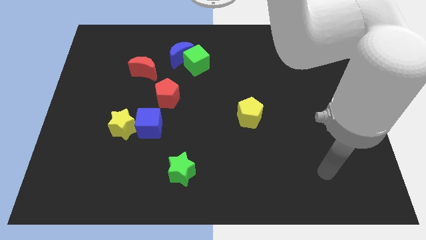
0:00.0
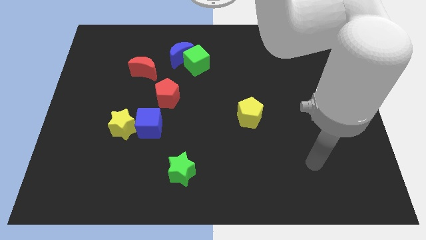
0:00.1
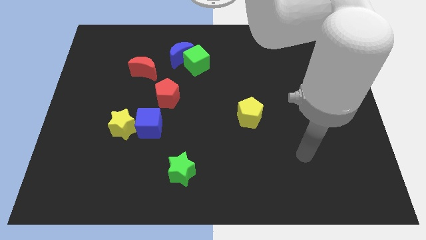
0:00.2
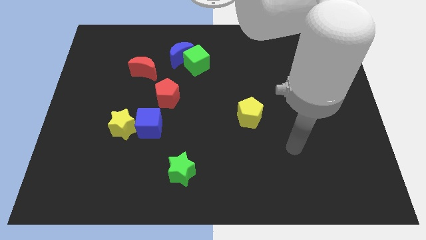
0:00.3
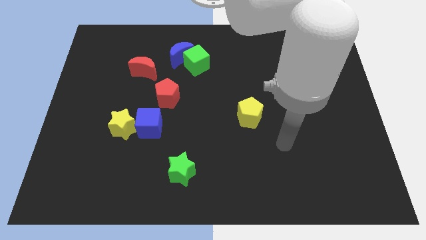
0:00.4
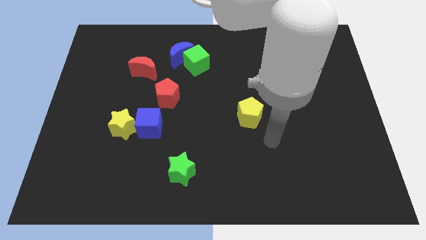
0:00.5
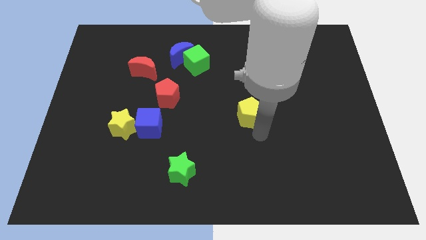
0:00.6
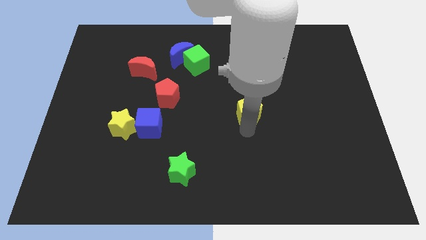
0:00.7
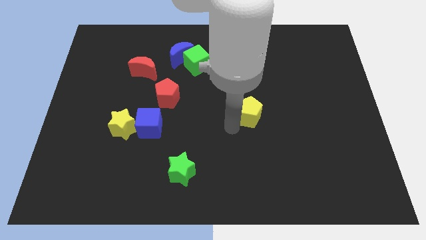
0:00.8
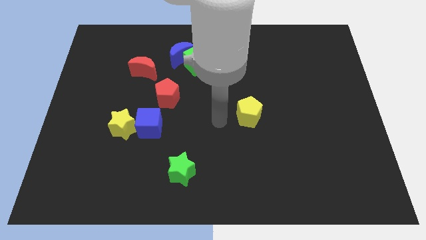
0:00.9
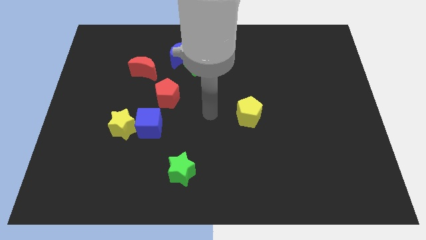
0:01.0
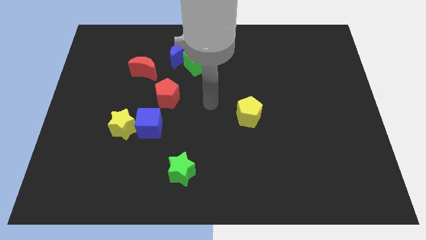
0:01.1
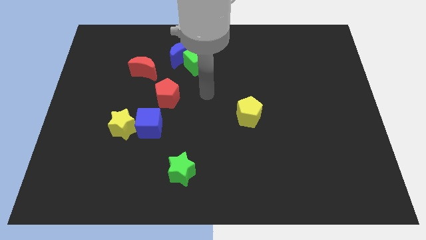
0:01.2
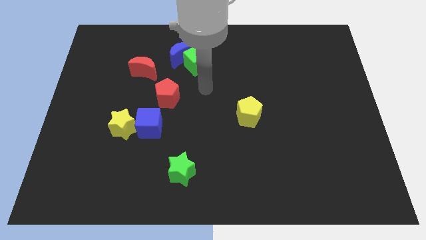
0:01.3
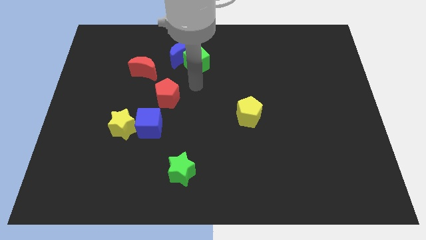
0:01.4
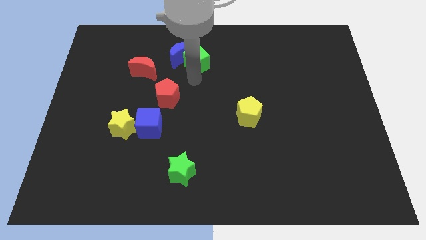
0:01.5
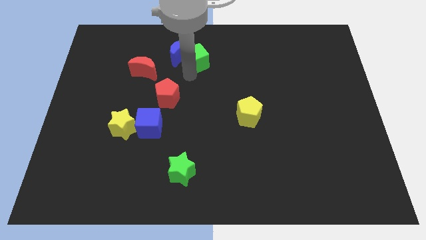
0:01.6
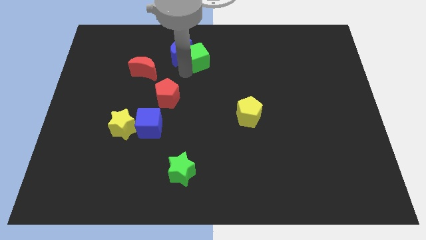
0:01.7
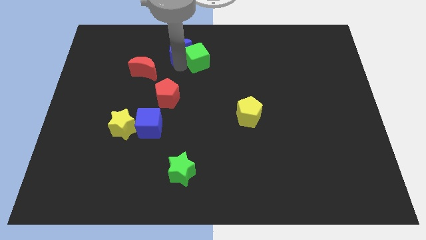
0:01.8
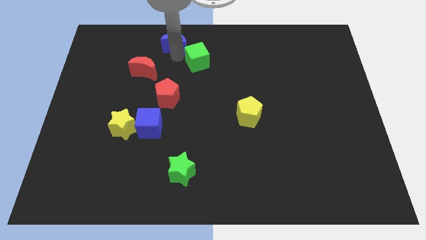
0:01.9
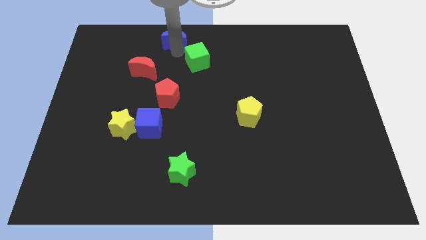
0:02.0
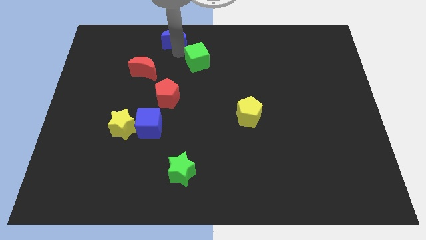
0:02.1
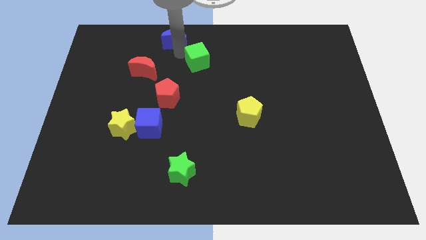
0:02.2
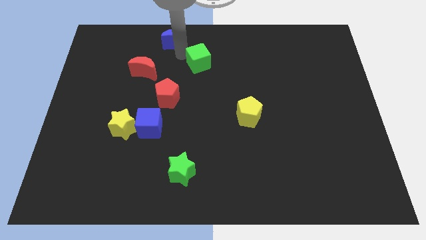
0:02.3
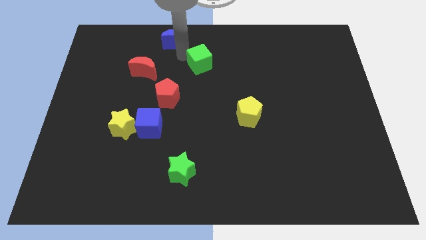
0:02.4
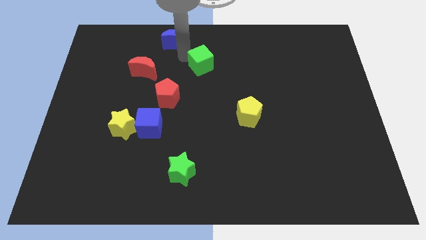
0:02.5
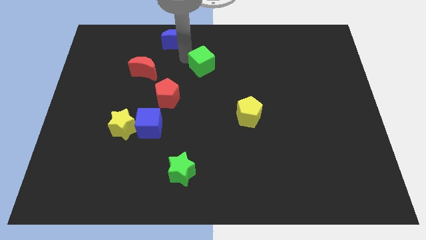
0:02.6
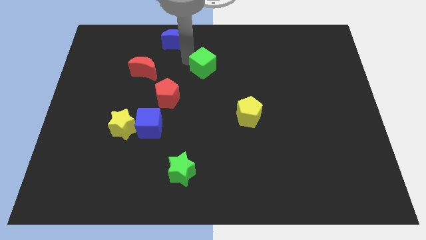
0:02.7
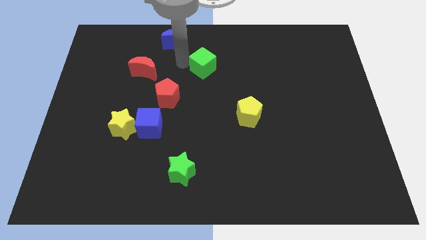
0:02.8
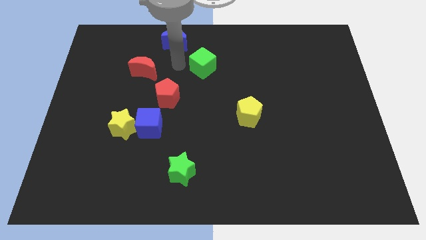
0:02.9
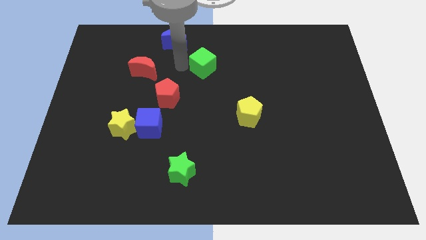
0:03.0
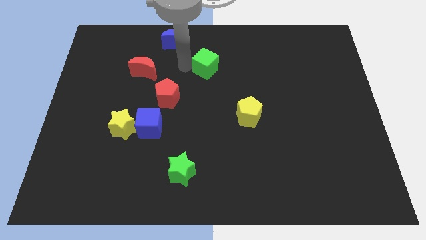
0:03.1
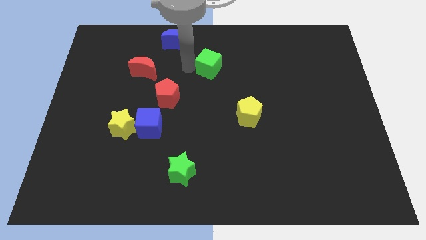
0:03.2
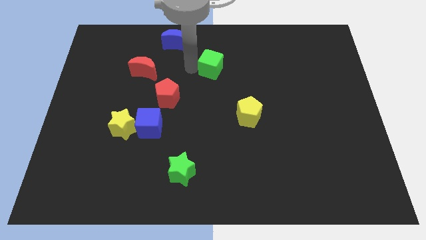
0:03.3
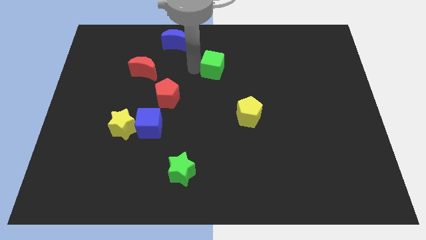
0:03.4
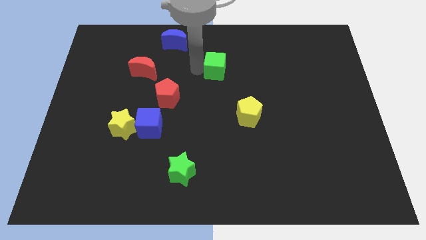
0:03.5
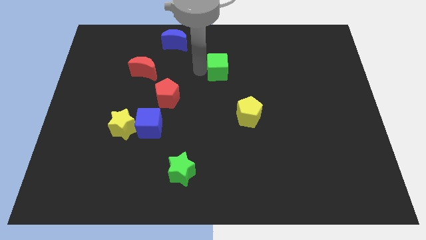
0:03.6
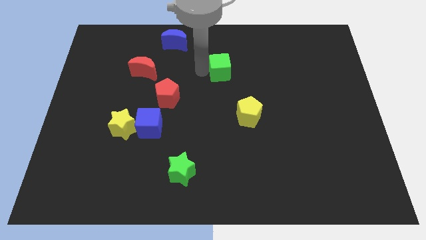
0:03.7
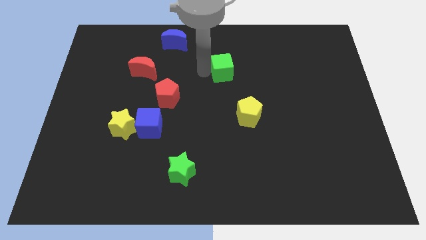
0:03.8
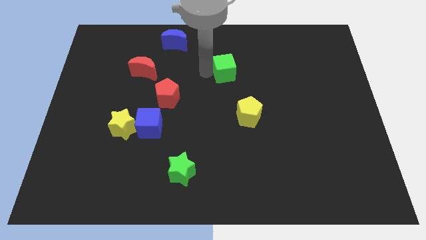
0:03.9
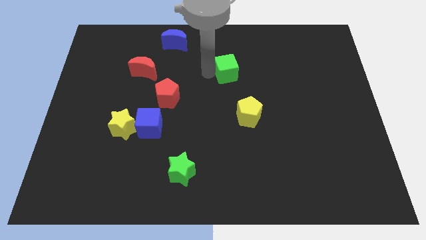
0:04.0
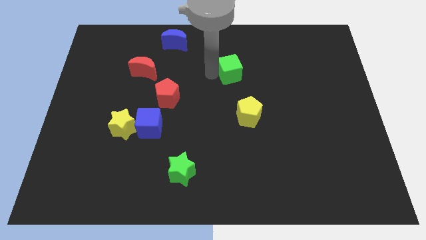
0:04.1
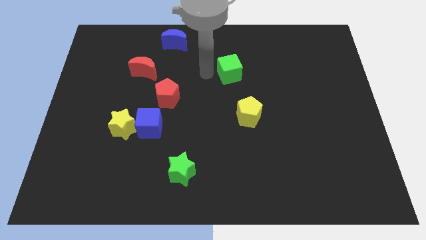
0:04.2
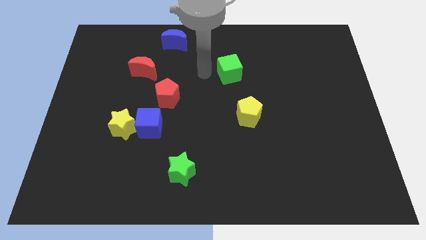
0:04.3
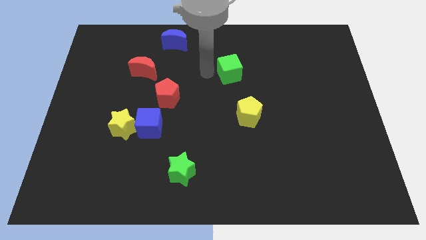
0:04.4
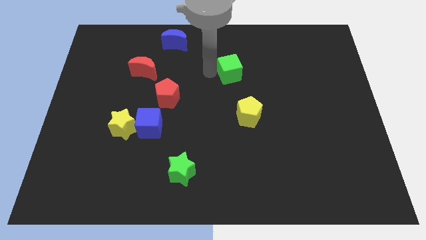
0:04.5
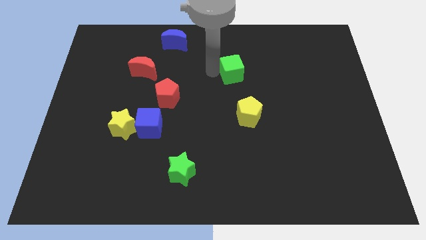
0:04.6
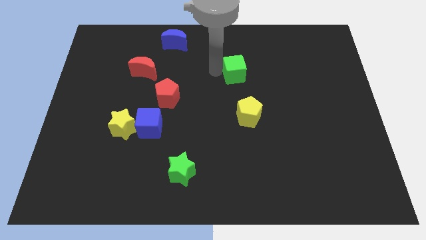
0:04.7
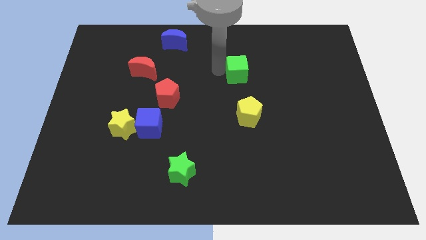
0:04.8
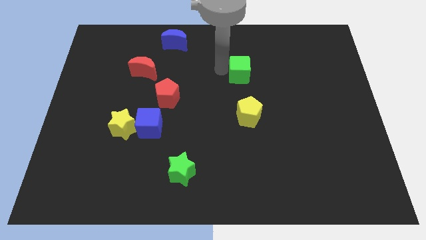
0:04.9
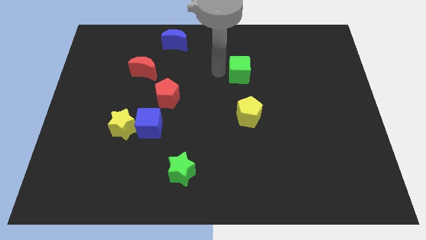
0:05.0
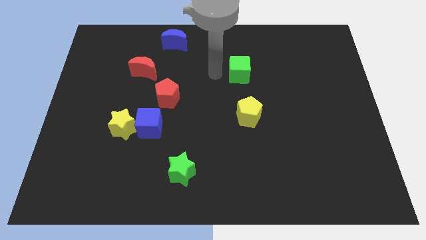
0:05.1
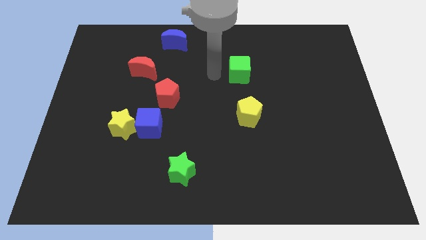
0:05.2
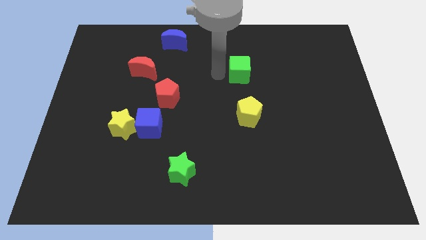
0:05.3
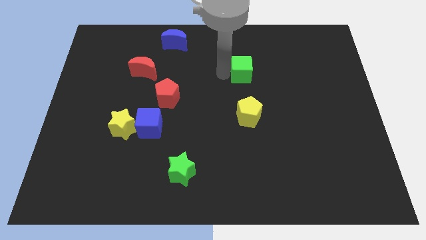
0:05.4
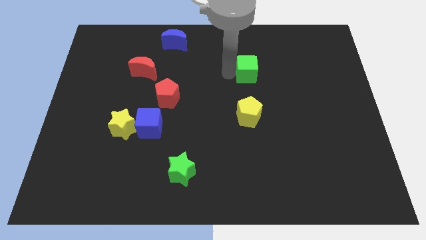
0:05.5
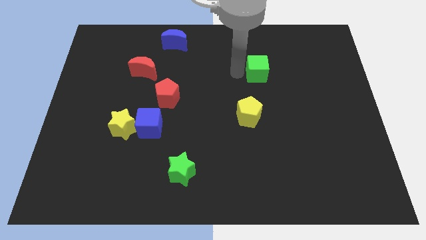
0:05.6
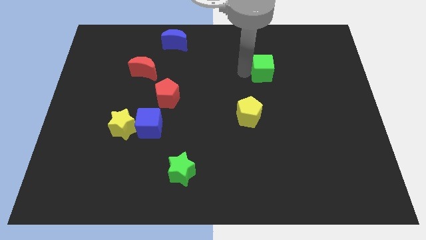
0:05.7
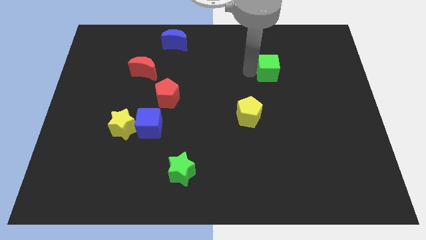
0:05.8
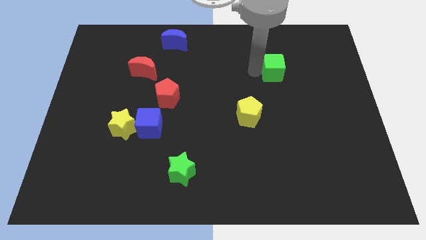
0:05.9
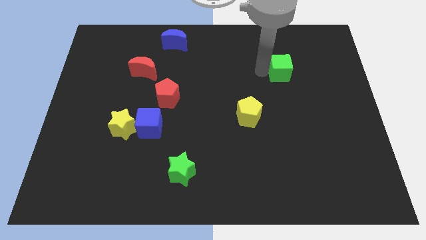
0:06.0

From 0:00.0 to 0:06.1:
slide the green cube right

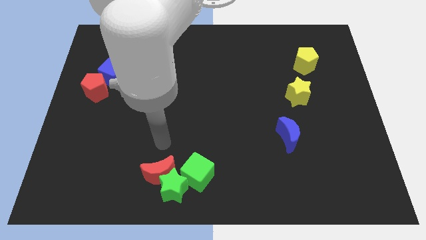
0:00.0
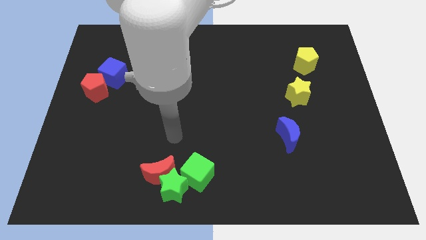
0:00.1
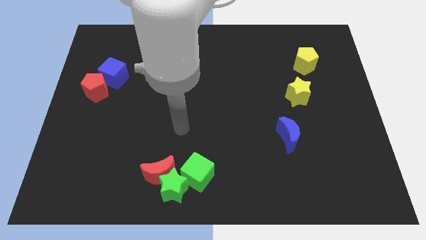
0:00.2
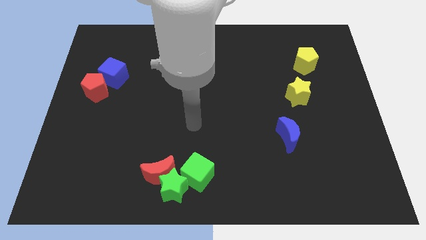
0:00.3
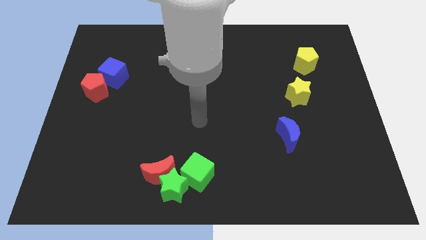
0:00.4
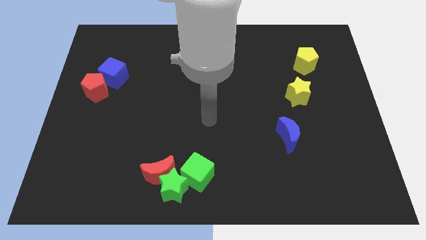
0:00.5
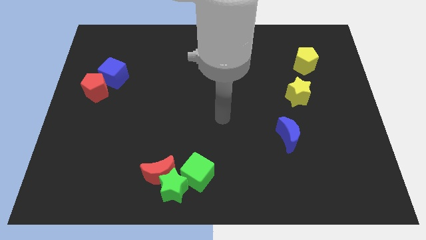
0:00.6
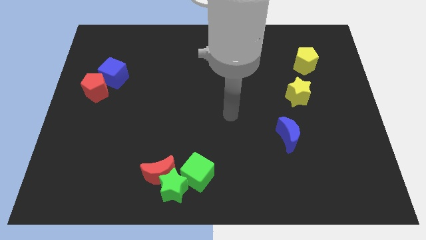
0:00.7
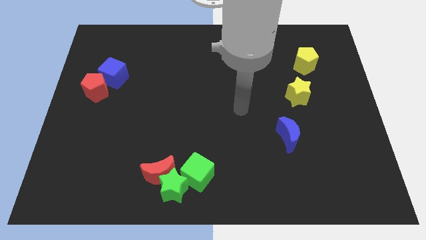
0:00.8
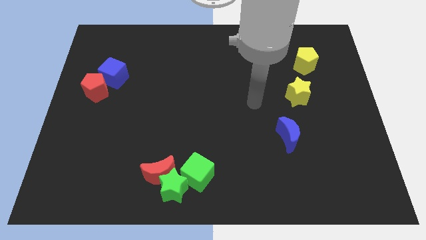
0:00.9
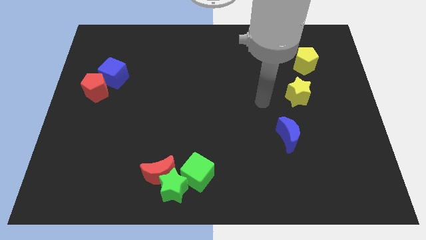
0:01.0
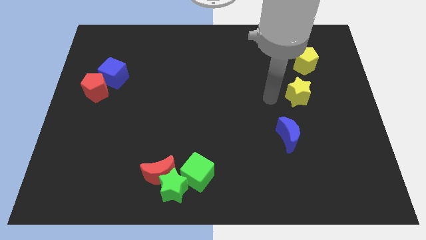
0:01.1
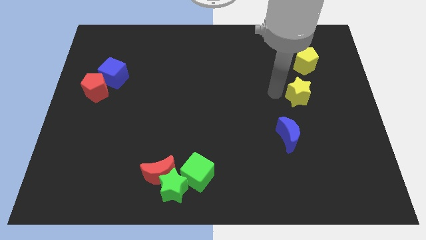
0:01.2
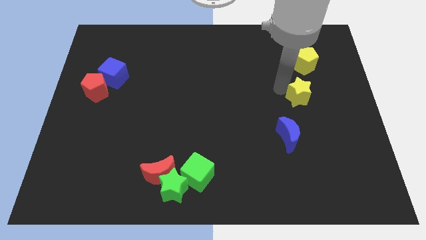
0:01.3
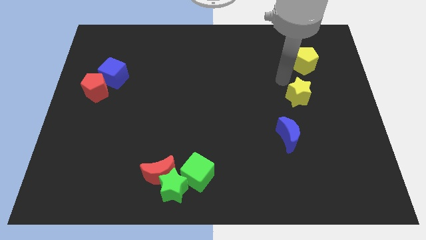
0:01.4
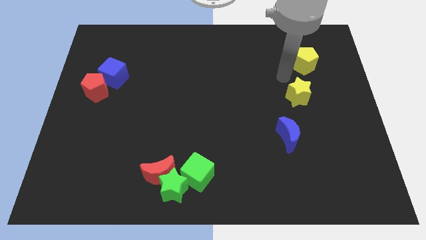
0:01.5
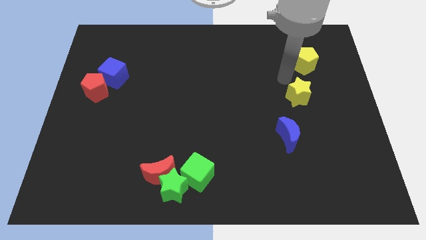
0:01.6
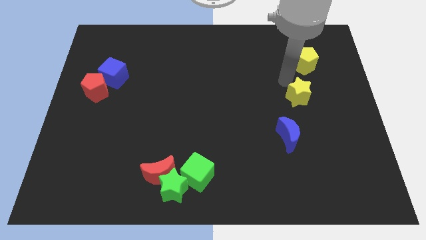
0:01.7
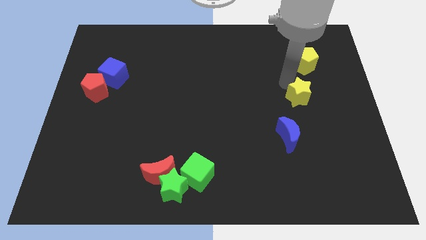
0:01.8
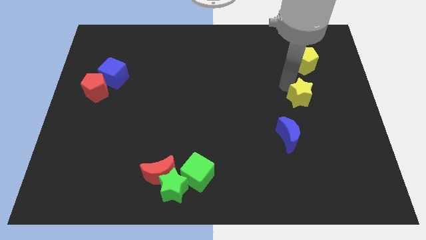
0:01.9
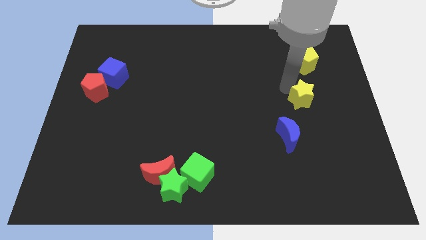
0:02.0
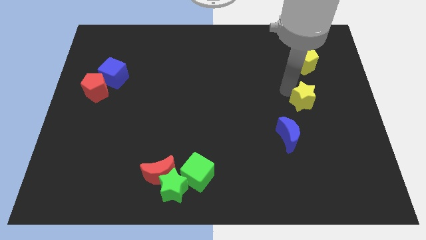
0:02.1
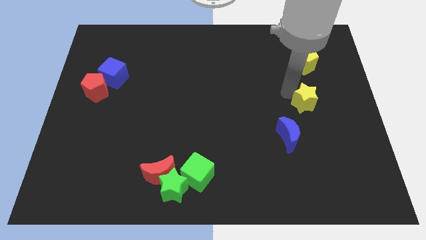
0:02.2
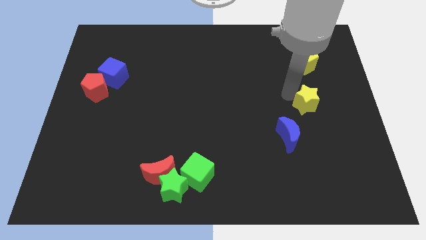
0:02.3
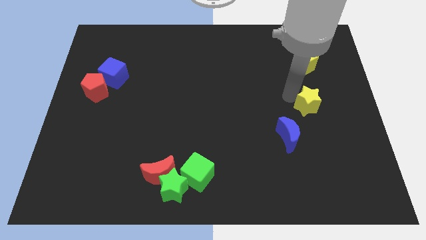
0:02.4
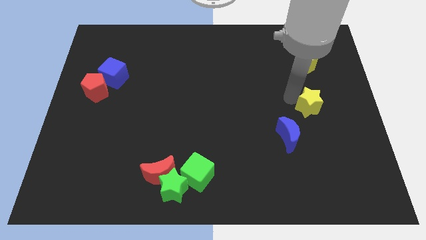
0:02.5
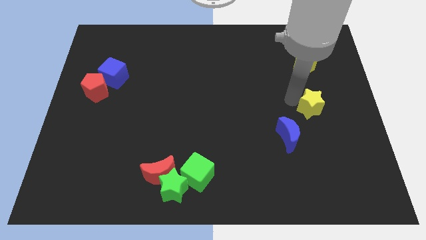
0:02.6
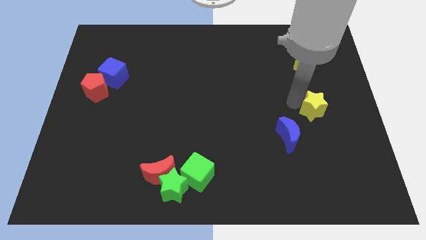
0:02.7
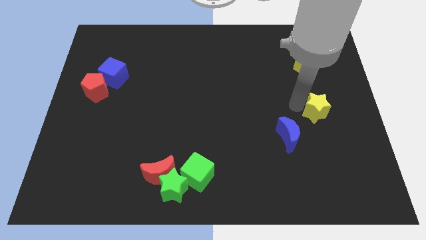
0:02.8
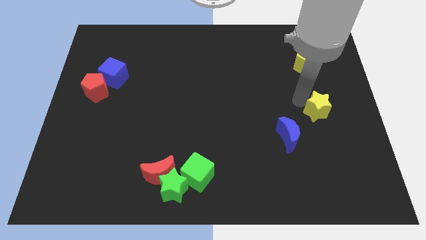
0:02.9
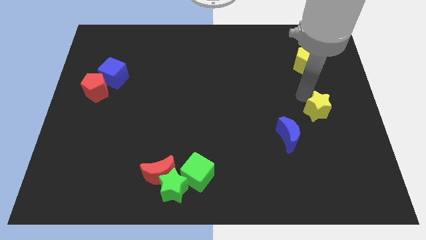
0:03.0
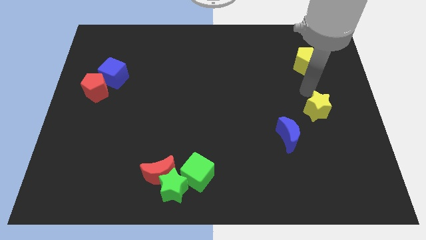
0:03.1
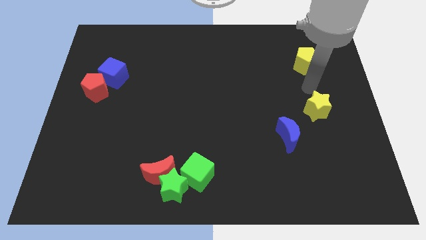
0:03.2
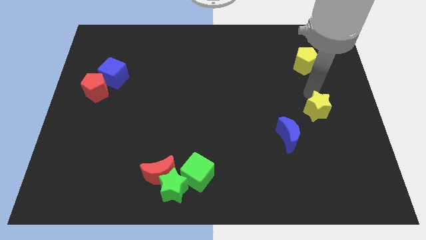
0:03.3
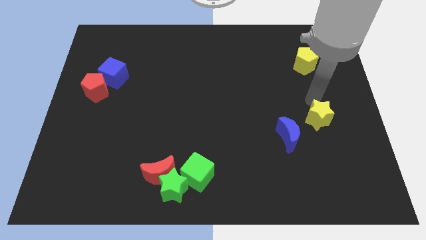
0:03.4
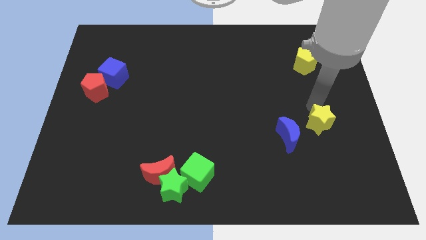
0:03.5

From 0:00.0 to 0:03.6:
slightly slide the yellow star downwards
